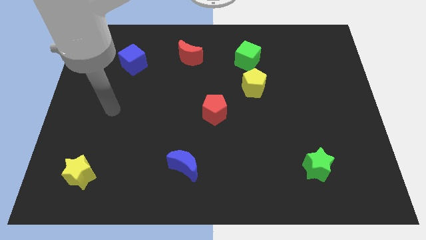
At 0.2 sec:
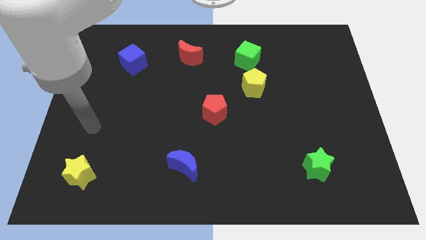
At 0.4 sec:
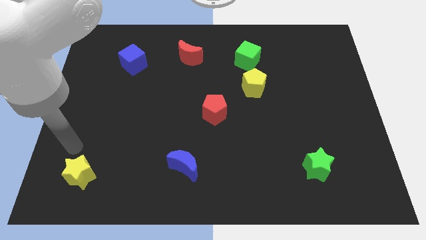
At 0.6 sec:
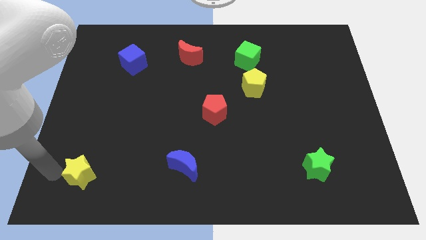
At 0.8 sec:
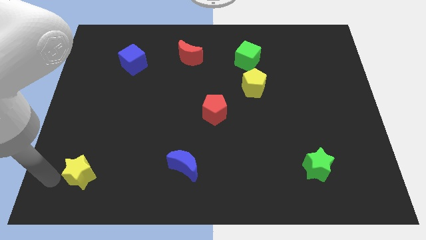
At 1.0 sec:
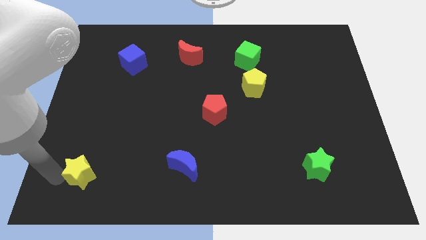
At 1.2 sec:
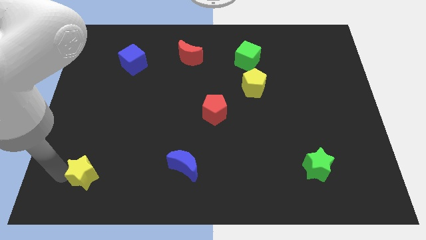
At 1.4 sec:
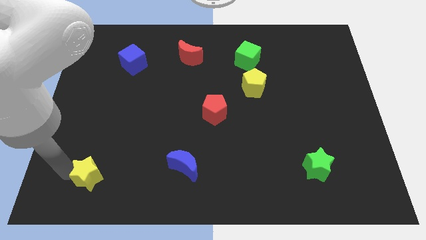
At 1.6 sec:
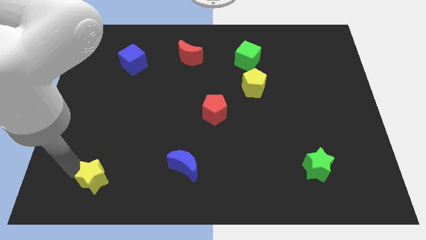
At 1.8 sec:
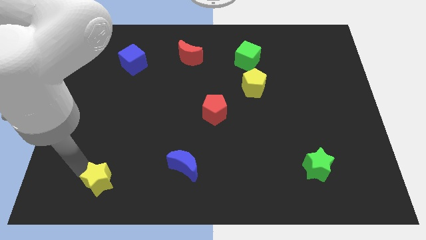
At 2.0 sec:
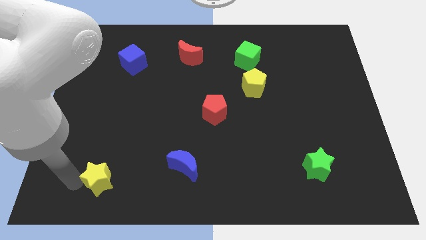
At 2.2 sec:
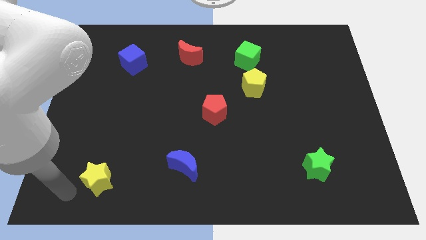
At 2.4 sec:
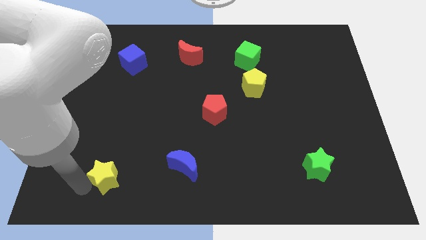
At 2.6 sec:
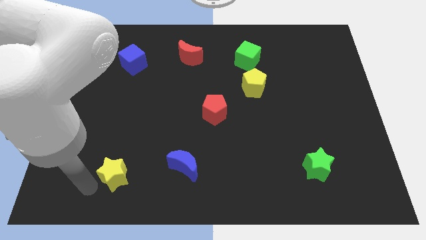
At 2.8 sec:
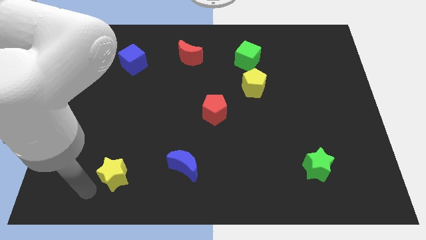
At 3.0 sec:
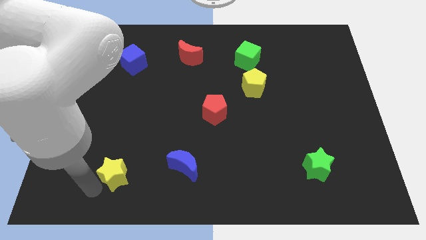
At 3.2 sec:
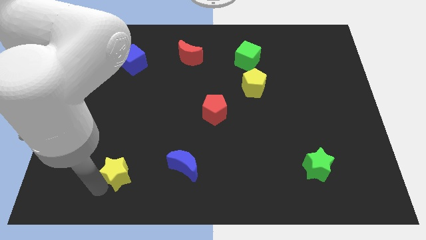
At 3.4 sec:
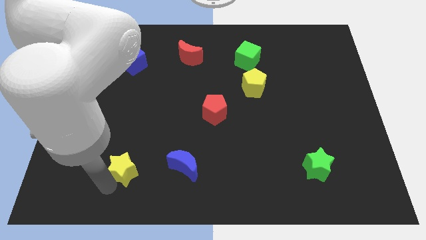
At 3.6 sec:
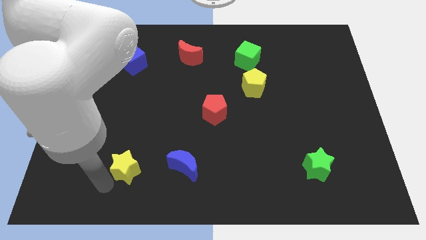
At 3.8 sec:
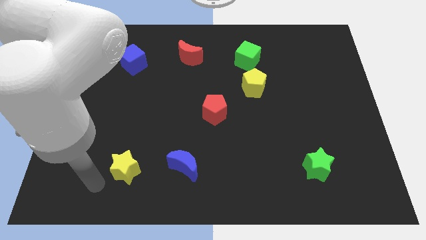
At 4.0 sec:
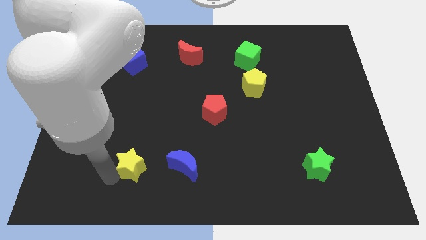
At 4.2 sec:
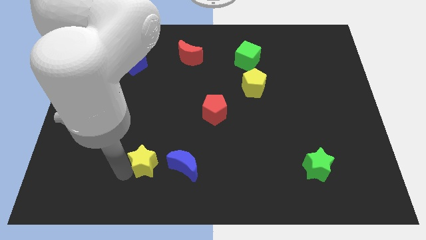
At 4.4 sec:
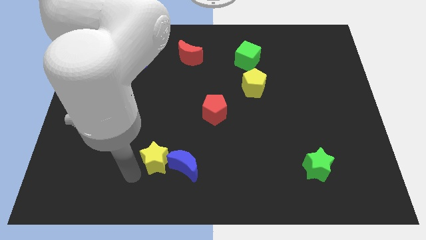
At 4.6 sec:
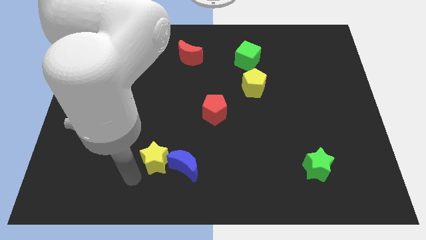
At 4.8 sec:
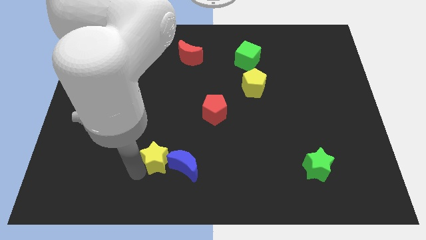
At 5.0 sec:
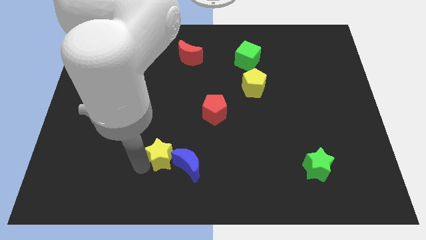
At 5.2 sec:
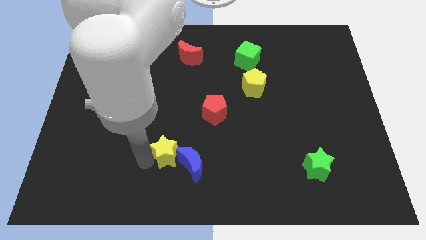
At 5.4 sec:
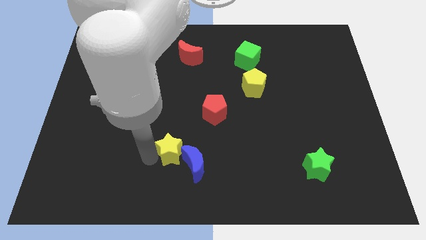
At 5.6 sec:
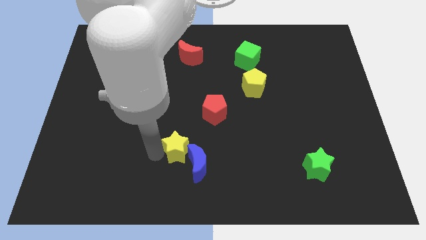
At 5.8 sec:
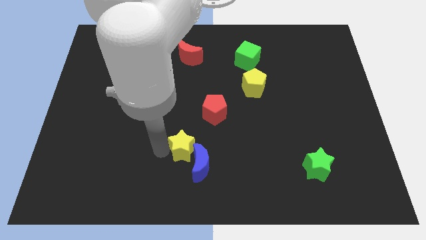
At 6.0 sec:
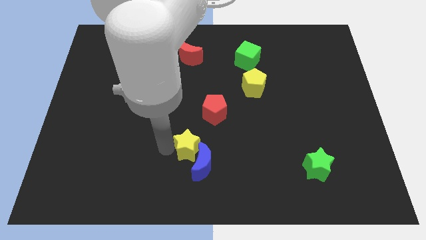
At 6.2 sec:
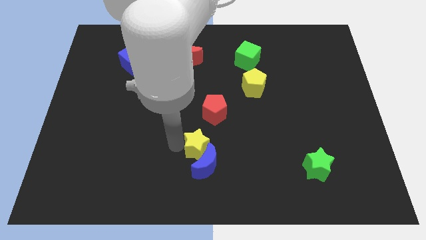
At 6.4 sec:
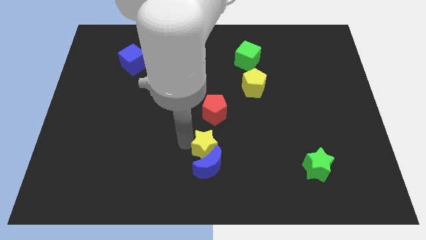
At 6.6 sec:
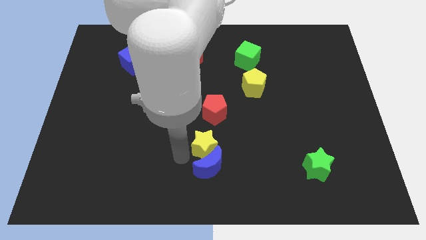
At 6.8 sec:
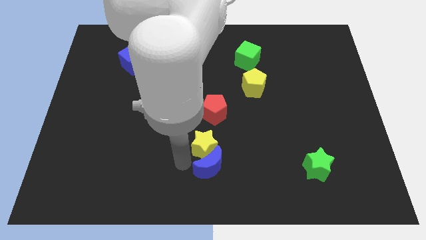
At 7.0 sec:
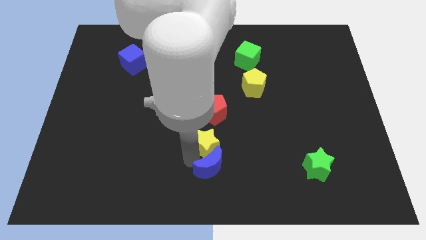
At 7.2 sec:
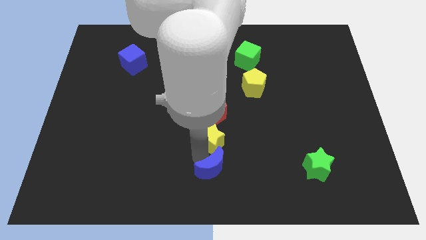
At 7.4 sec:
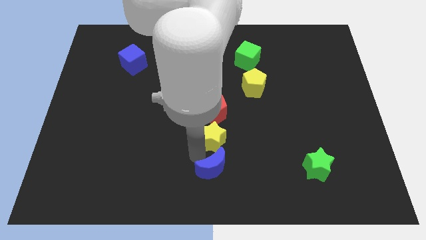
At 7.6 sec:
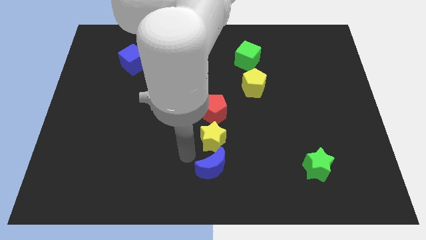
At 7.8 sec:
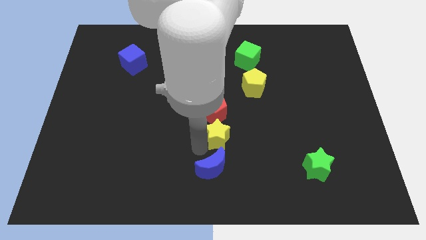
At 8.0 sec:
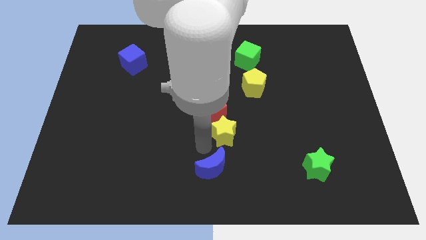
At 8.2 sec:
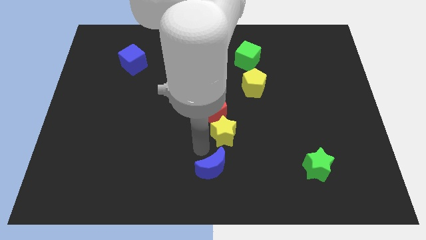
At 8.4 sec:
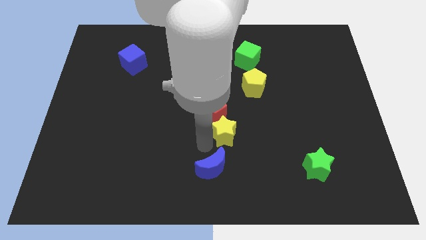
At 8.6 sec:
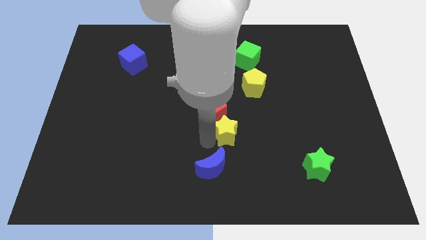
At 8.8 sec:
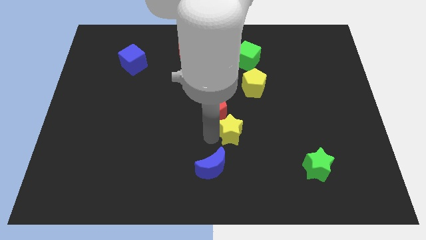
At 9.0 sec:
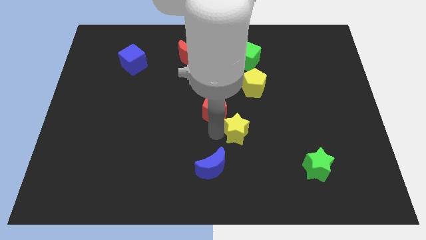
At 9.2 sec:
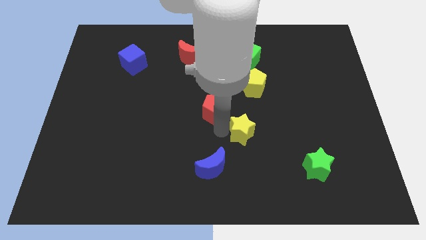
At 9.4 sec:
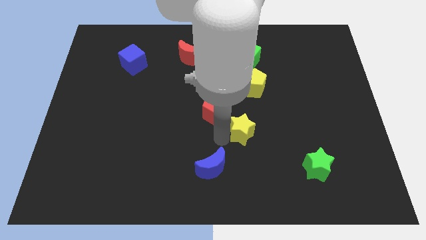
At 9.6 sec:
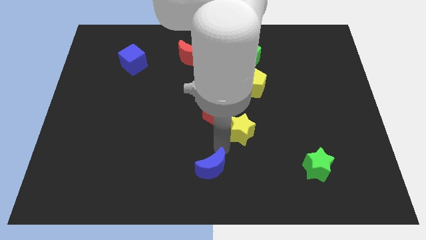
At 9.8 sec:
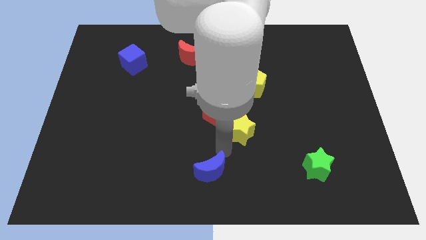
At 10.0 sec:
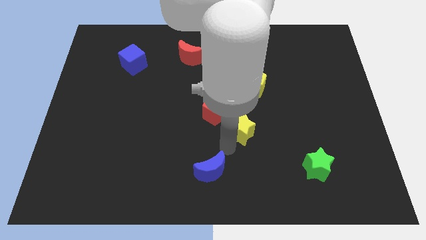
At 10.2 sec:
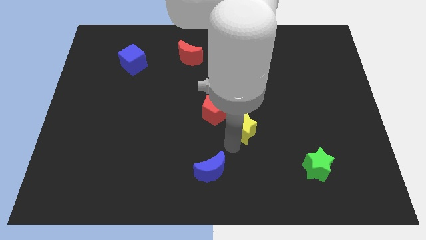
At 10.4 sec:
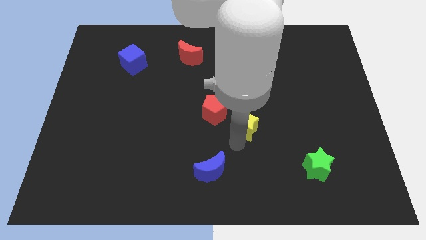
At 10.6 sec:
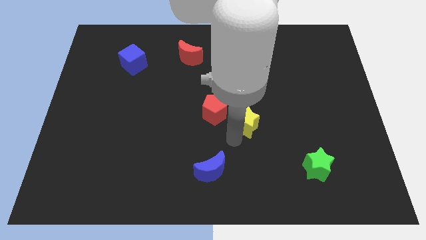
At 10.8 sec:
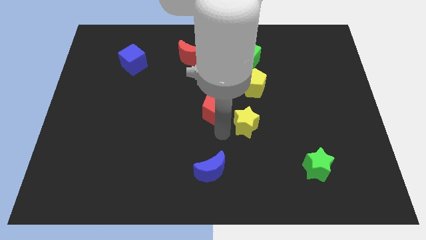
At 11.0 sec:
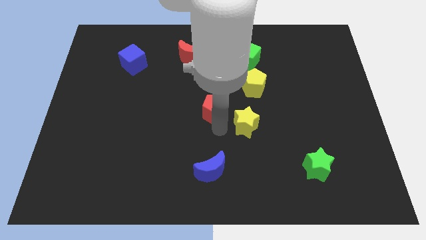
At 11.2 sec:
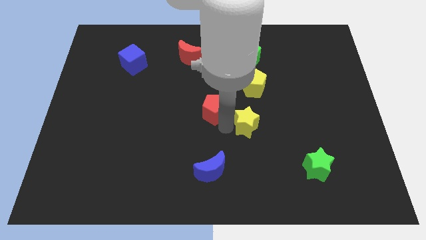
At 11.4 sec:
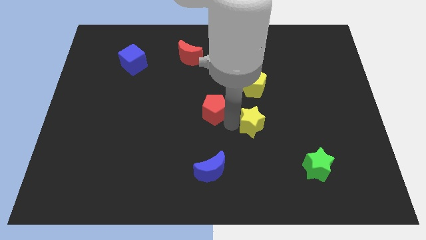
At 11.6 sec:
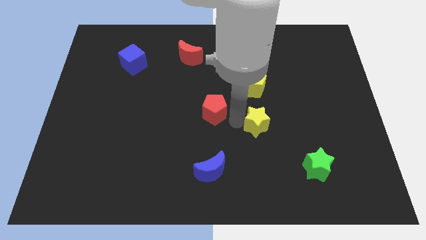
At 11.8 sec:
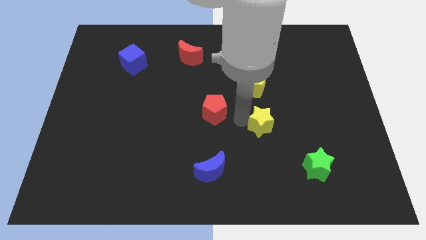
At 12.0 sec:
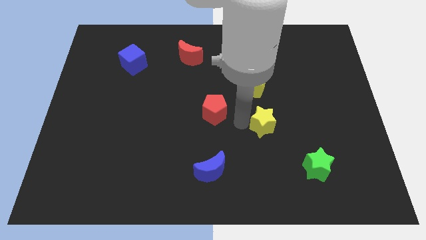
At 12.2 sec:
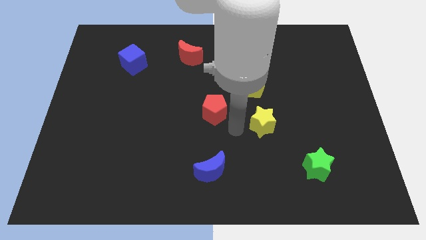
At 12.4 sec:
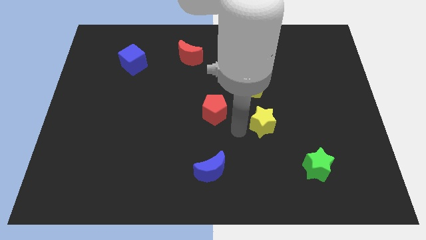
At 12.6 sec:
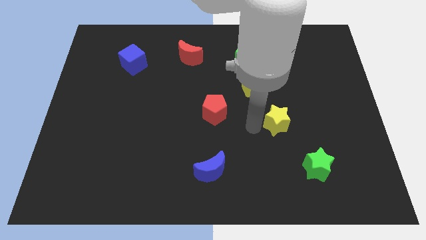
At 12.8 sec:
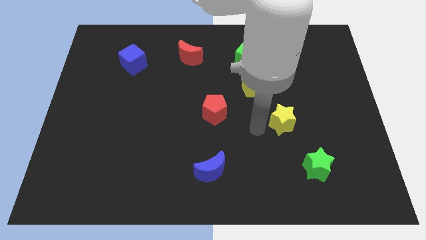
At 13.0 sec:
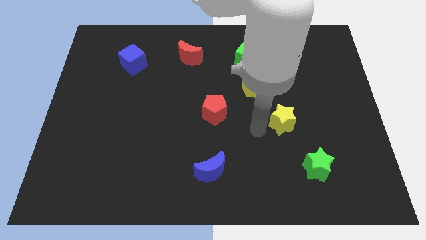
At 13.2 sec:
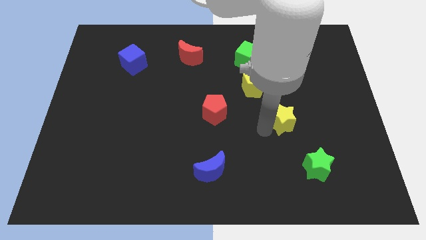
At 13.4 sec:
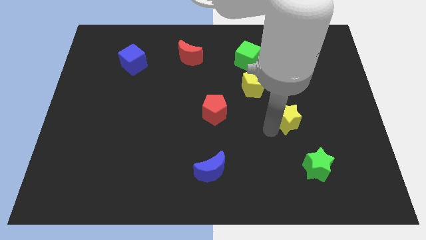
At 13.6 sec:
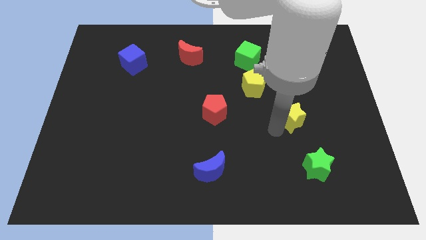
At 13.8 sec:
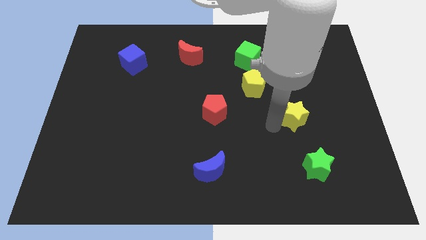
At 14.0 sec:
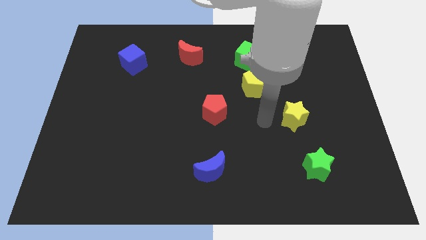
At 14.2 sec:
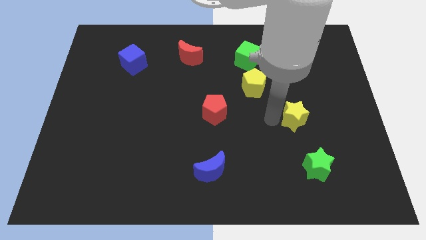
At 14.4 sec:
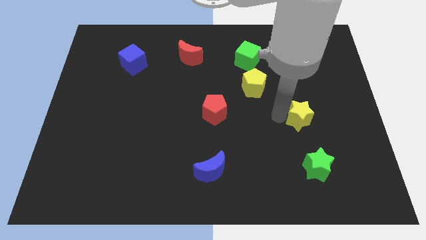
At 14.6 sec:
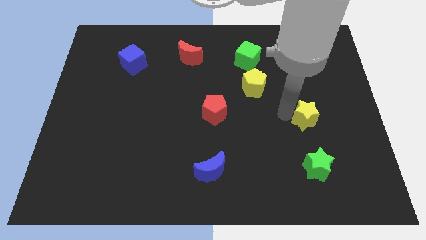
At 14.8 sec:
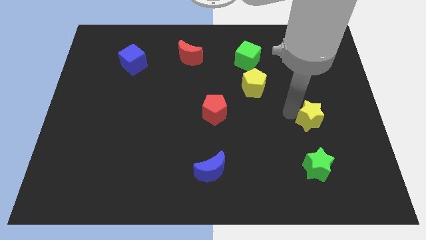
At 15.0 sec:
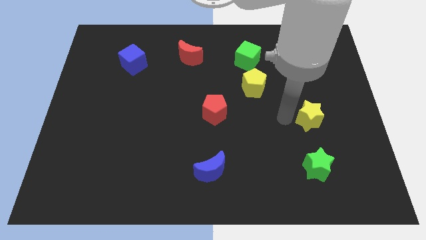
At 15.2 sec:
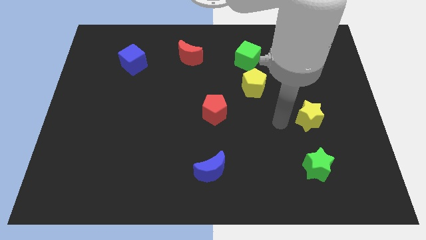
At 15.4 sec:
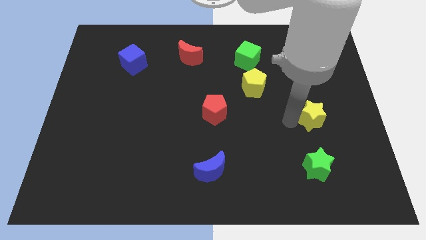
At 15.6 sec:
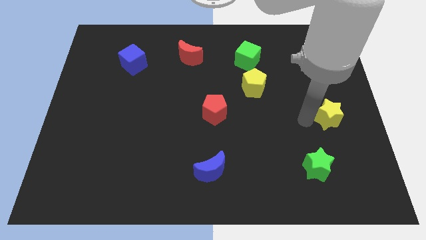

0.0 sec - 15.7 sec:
move the yellow star to the center right
